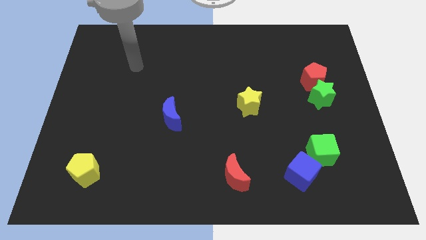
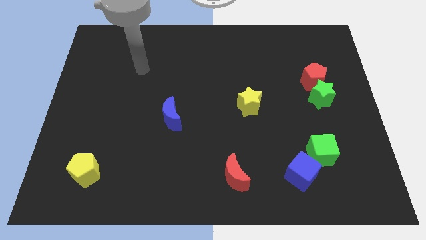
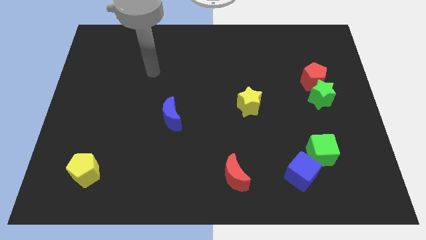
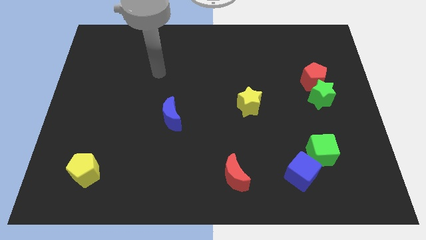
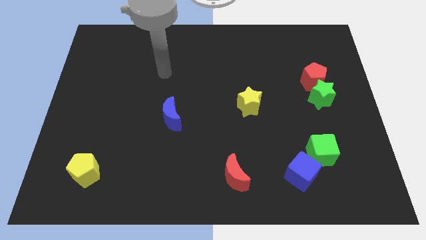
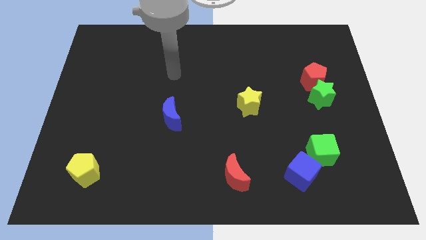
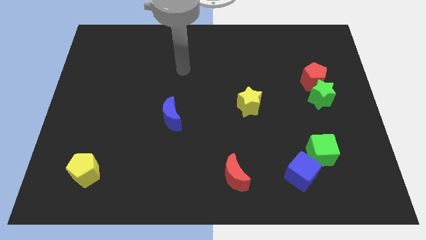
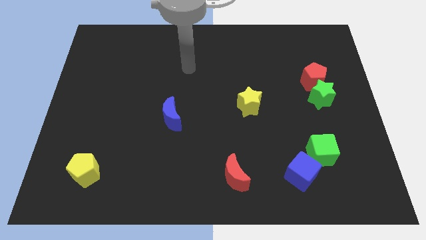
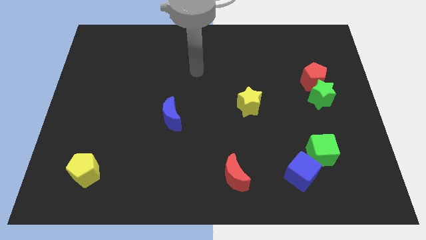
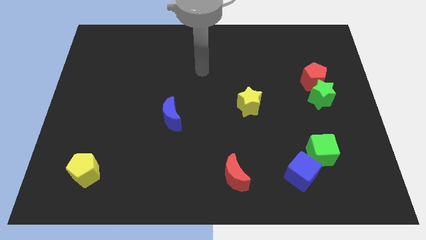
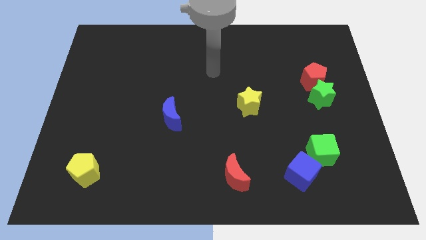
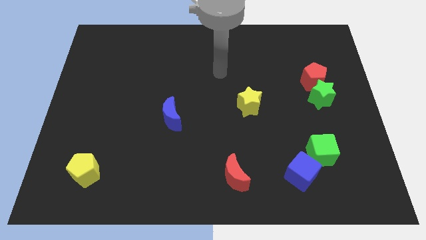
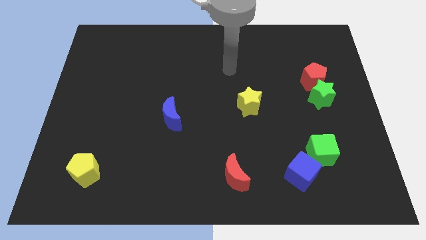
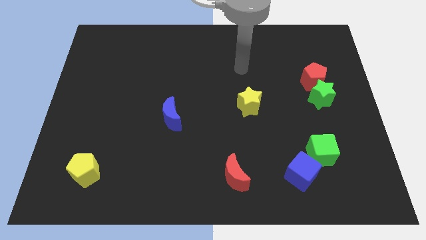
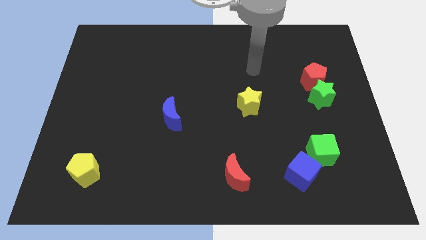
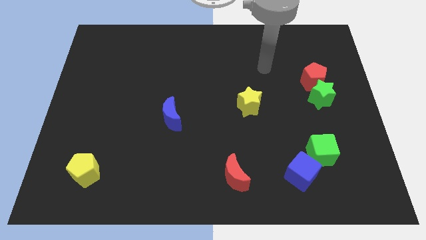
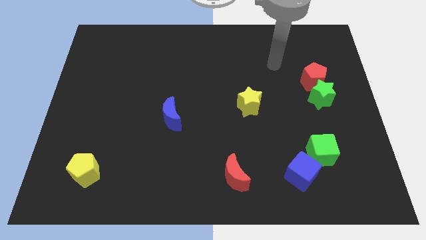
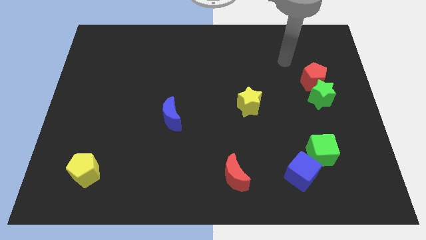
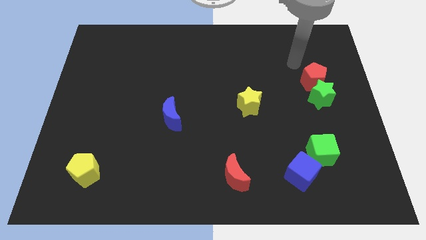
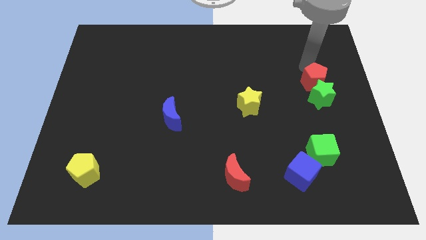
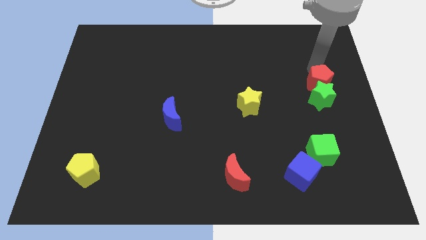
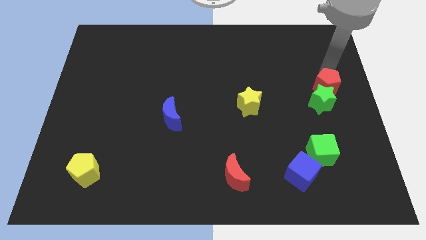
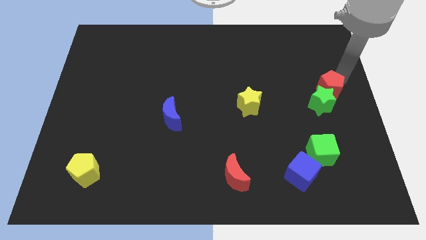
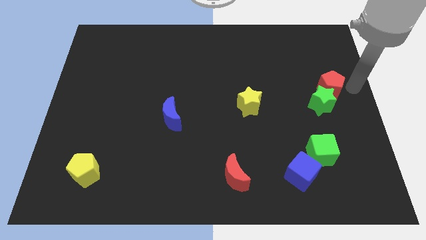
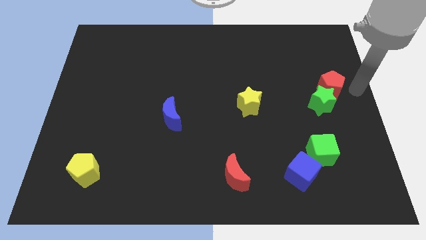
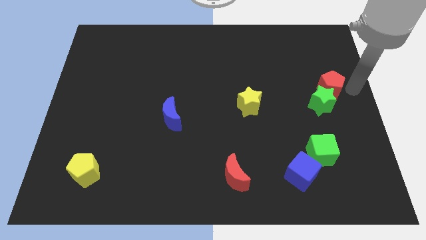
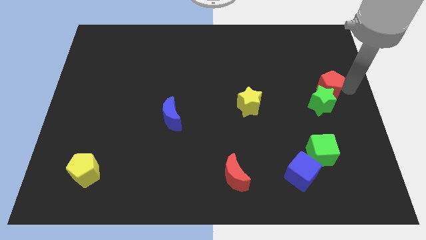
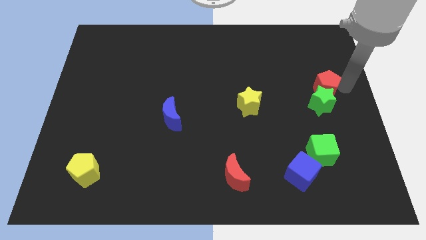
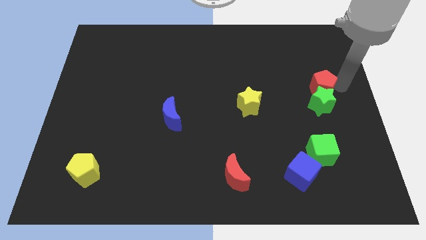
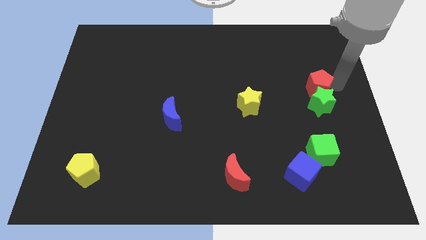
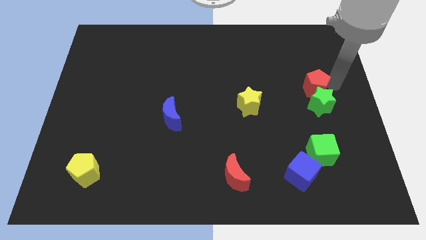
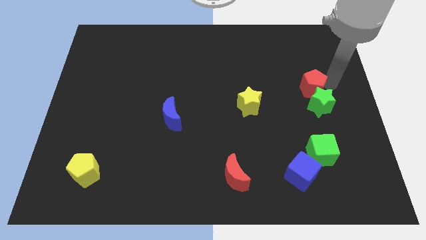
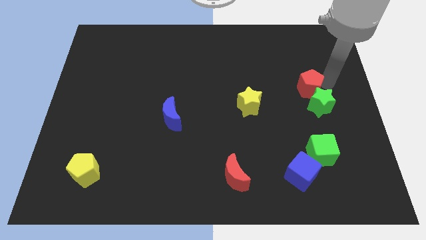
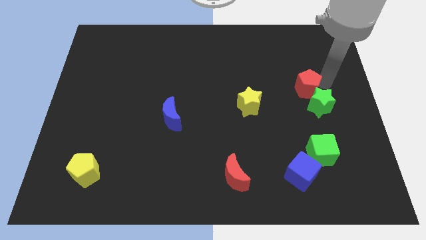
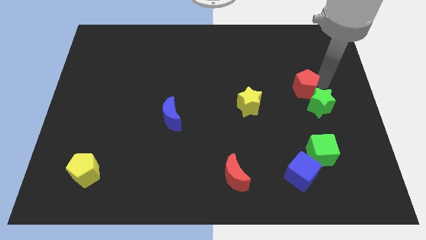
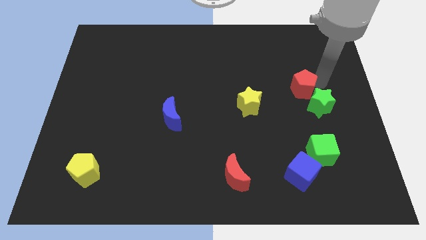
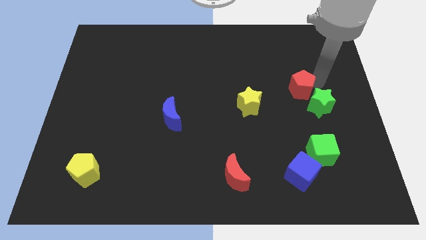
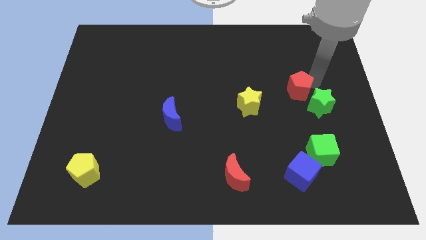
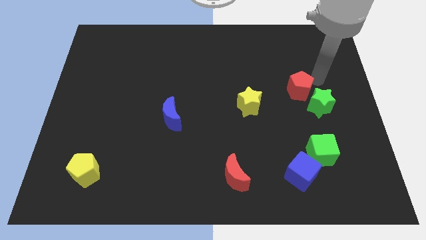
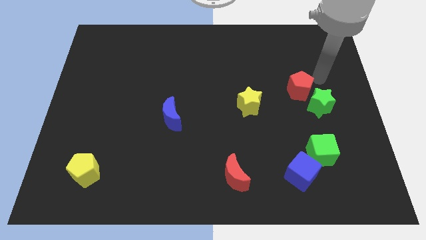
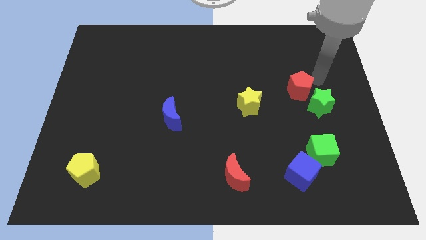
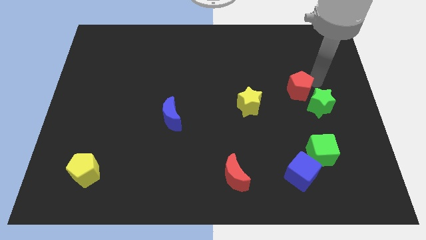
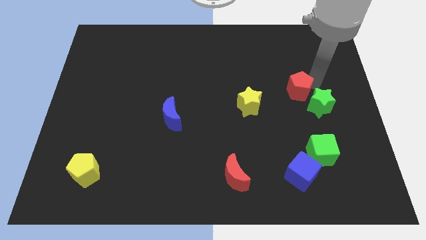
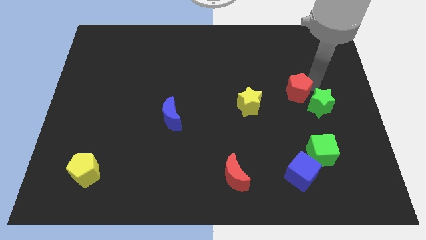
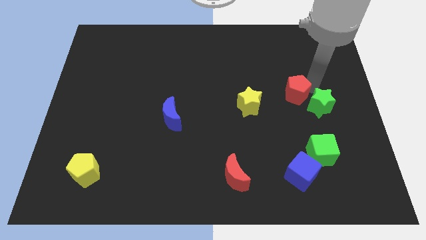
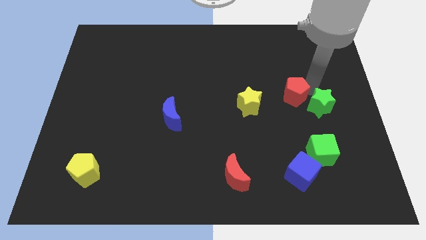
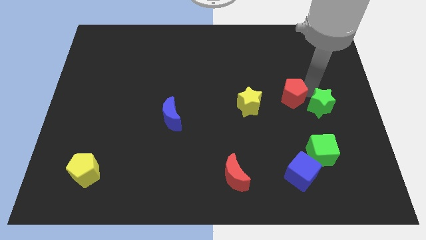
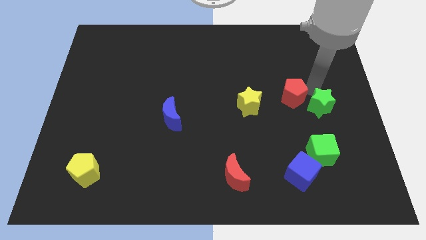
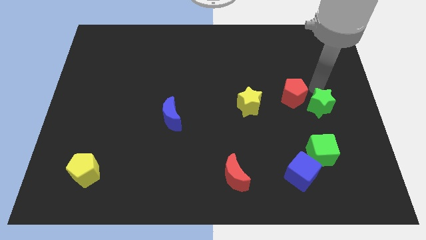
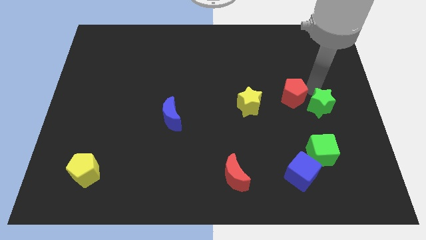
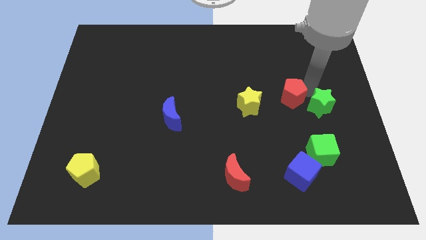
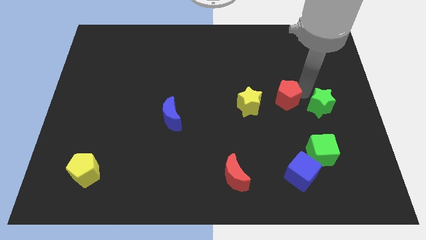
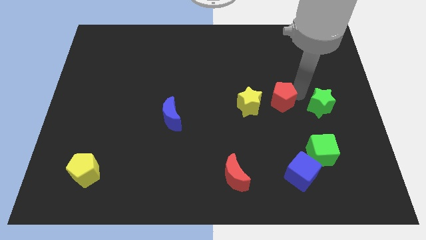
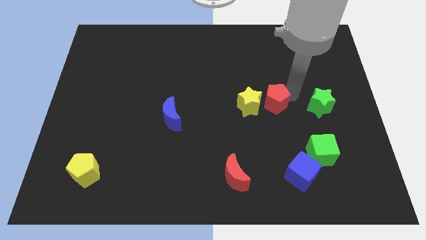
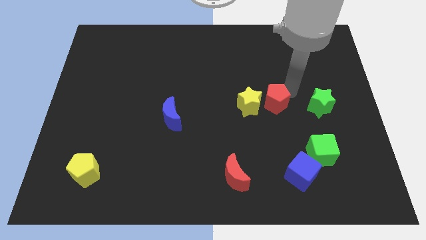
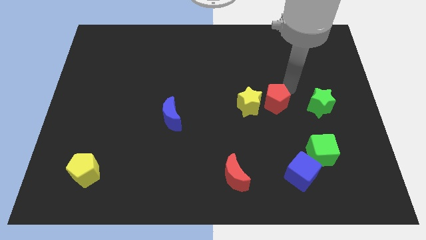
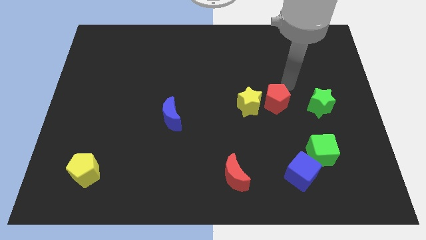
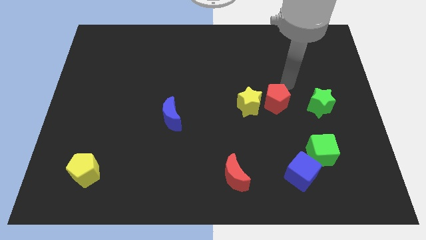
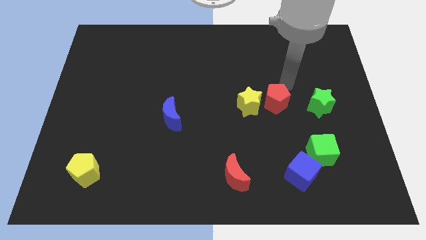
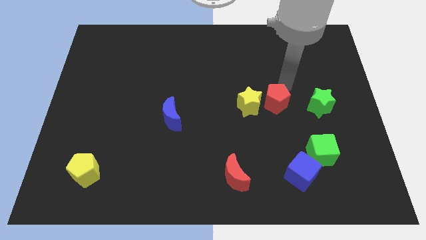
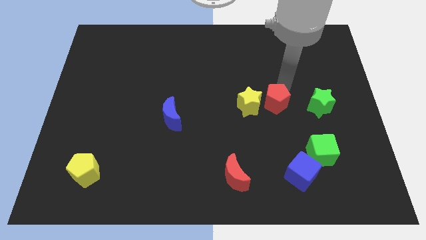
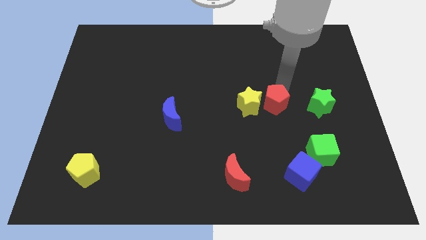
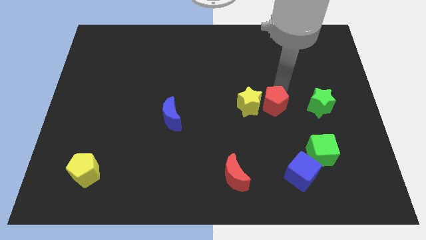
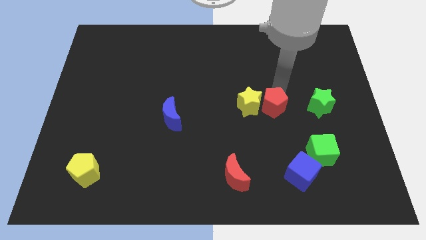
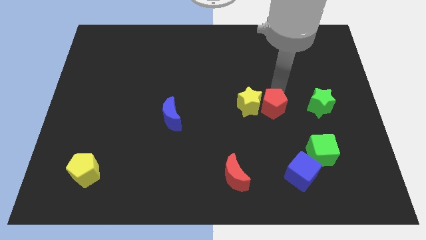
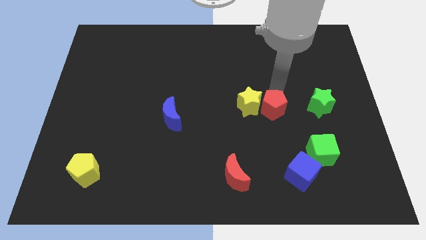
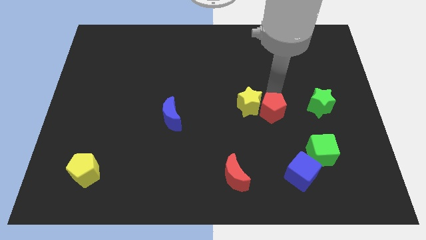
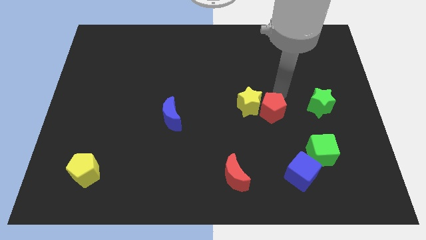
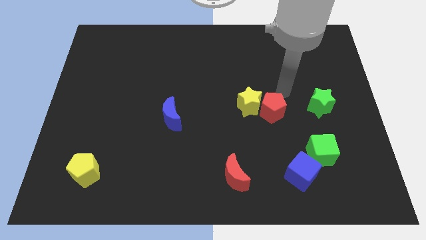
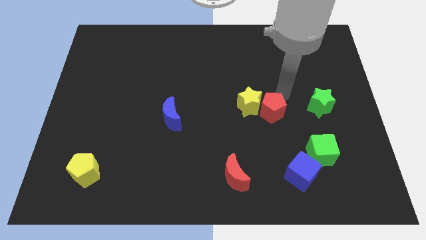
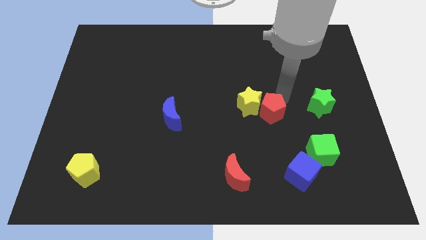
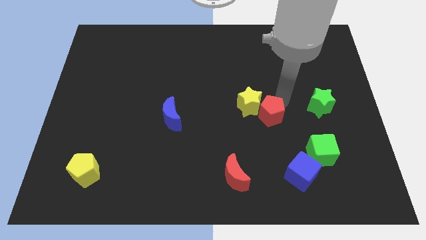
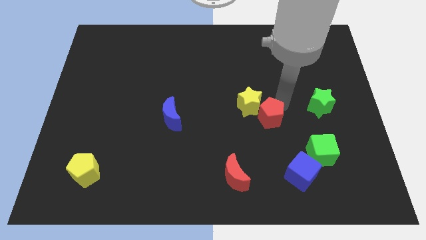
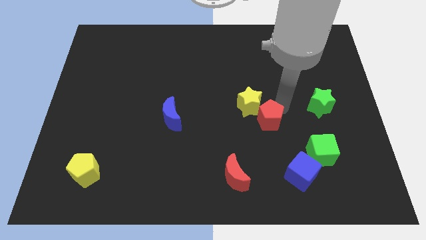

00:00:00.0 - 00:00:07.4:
put the red pentagon to the bottom side of the yellow star

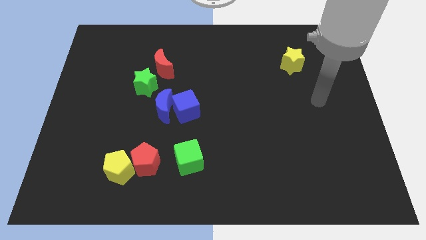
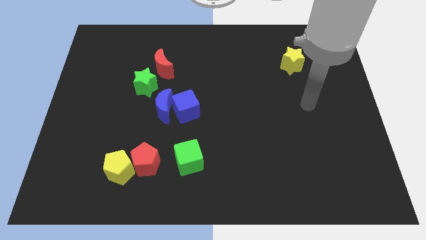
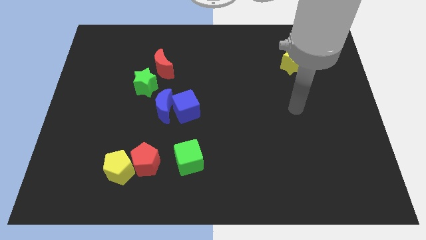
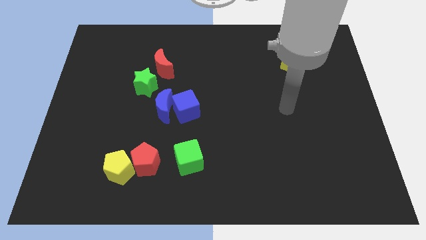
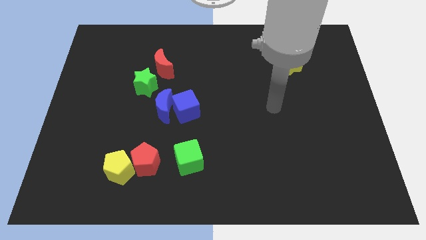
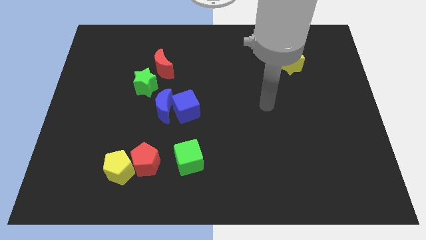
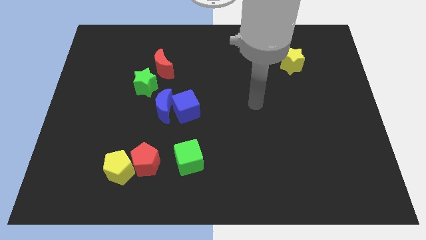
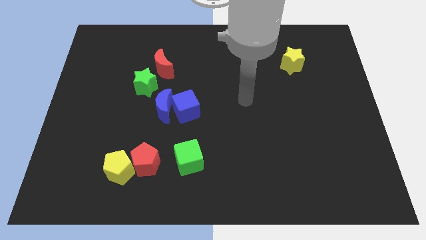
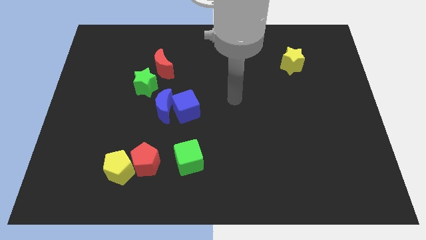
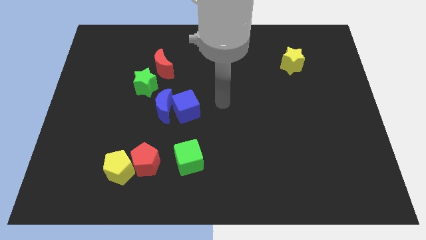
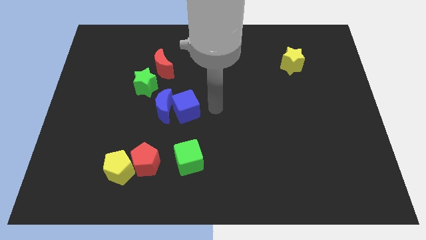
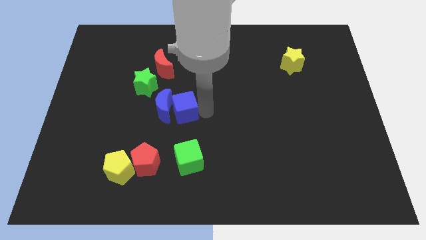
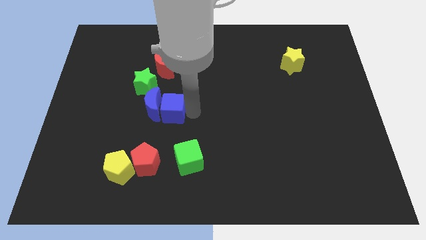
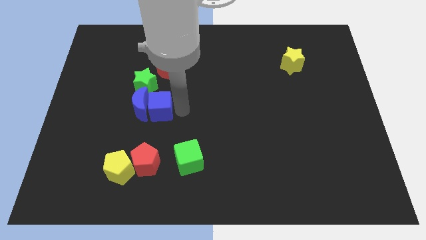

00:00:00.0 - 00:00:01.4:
push the blue moon to the bottom left side of the green star
